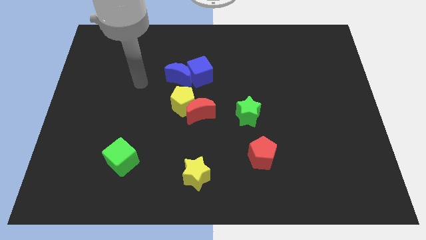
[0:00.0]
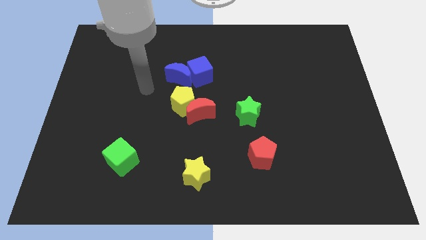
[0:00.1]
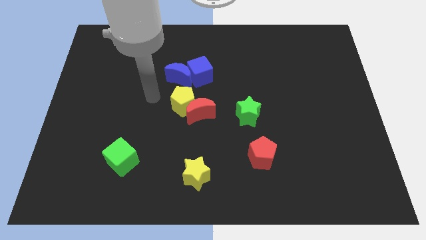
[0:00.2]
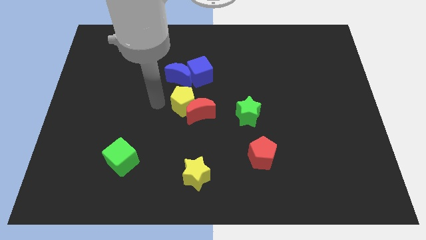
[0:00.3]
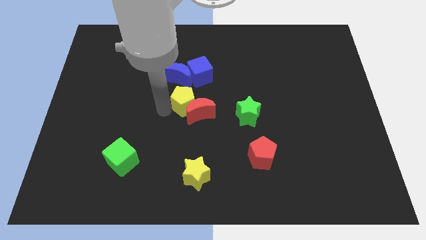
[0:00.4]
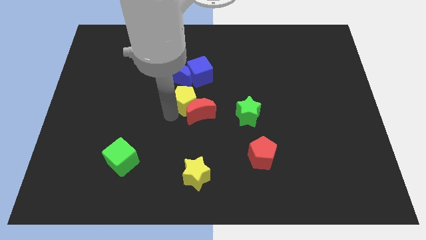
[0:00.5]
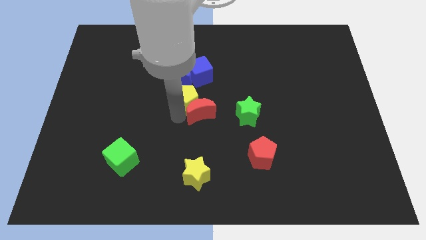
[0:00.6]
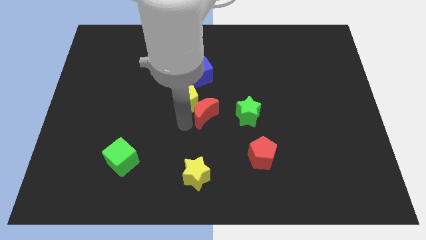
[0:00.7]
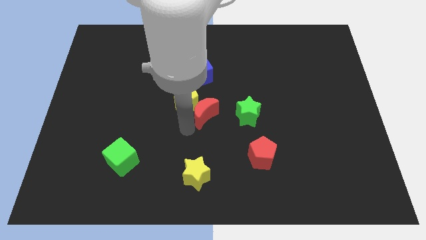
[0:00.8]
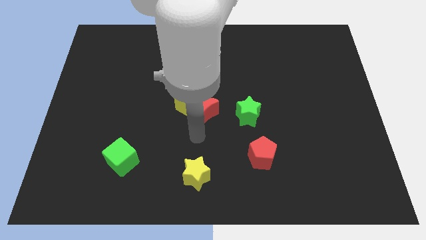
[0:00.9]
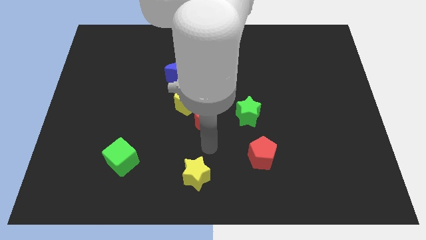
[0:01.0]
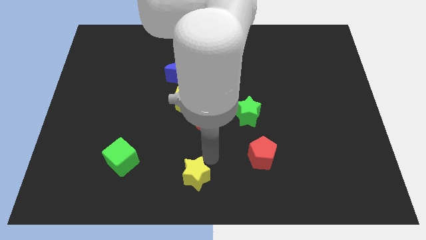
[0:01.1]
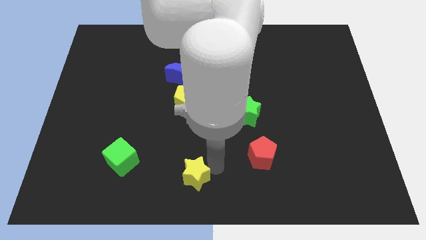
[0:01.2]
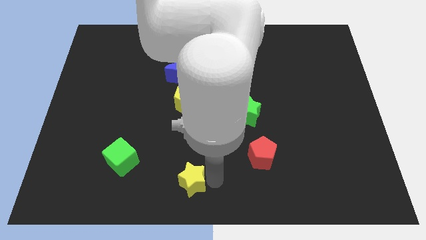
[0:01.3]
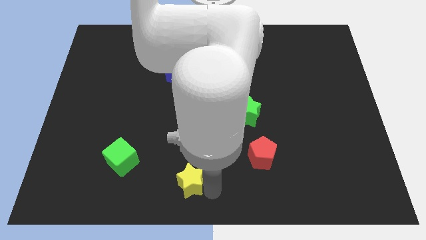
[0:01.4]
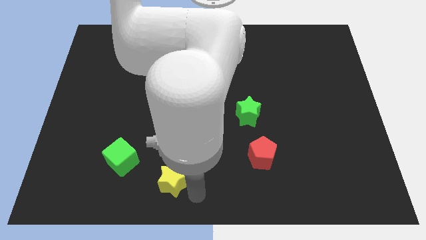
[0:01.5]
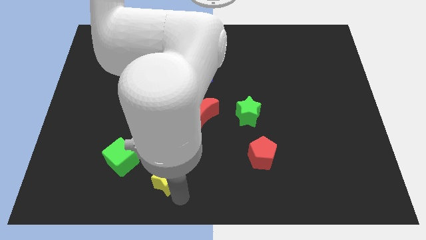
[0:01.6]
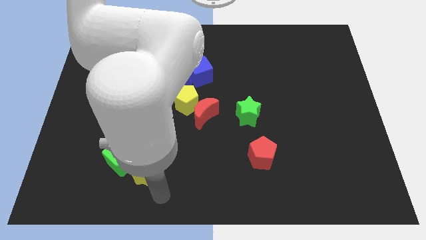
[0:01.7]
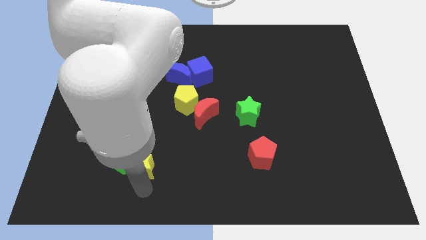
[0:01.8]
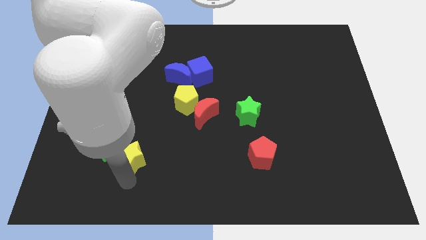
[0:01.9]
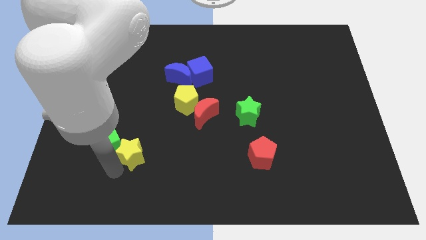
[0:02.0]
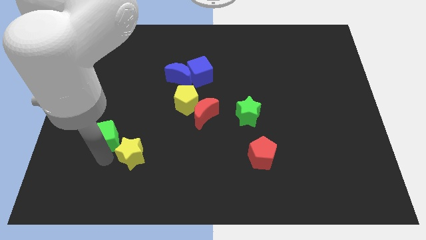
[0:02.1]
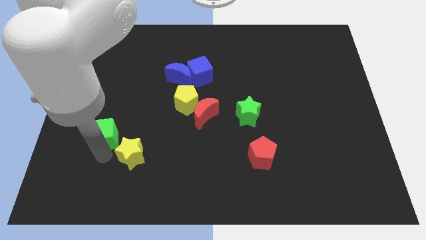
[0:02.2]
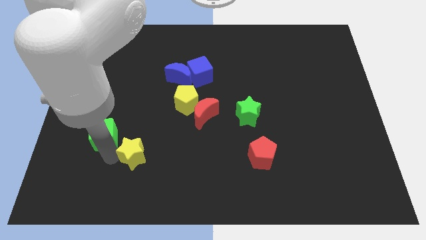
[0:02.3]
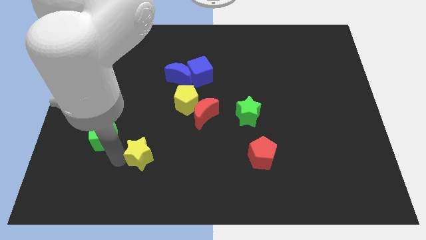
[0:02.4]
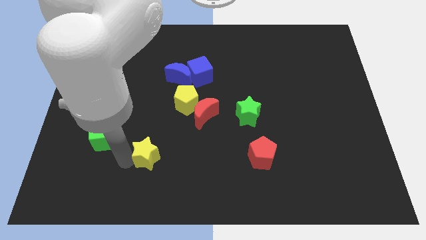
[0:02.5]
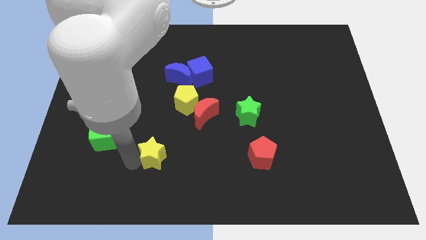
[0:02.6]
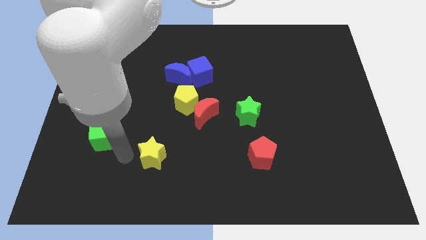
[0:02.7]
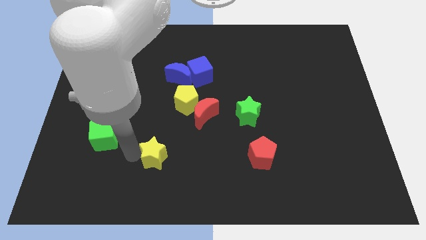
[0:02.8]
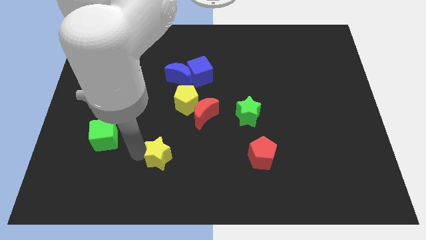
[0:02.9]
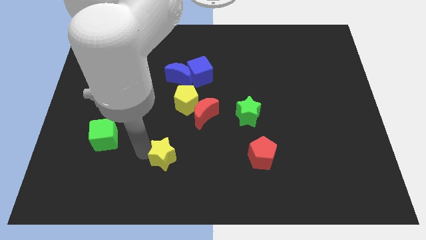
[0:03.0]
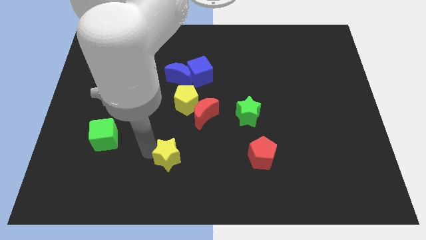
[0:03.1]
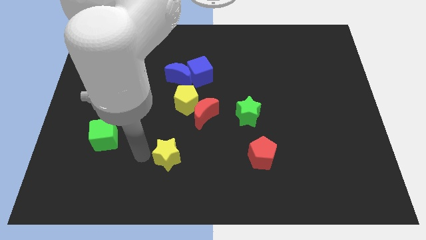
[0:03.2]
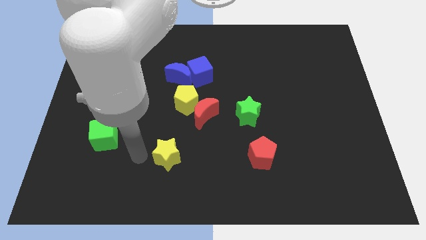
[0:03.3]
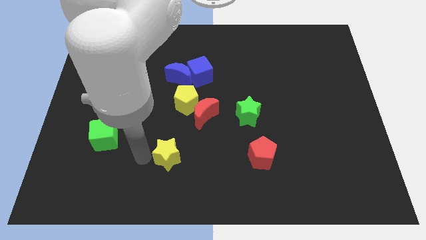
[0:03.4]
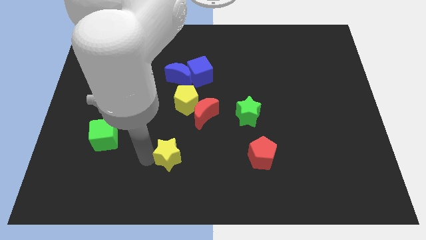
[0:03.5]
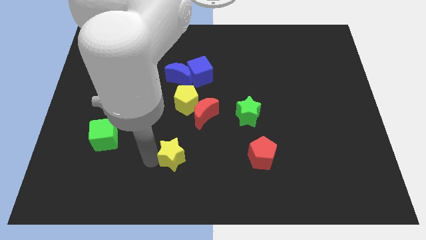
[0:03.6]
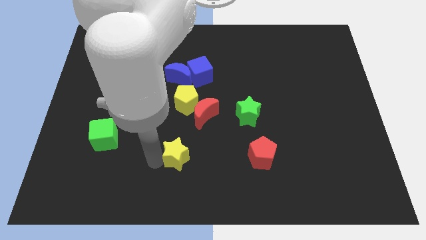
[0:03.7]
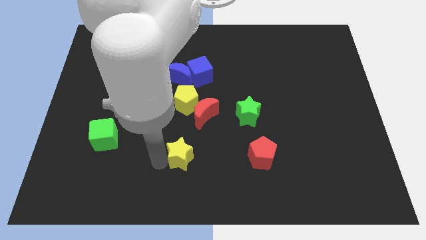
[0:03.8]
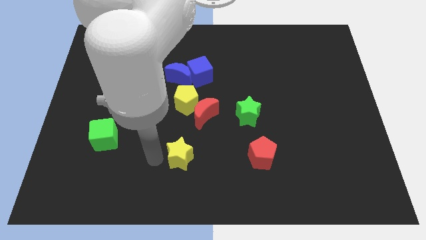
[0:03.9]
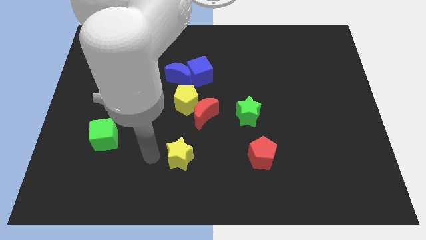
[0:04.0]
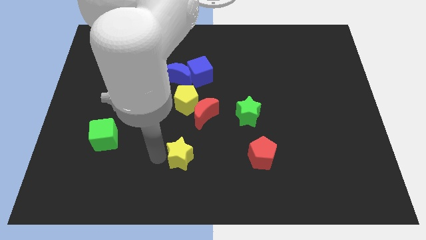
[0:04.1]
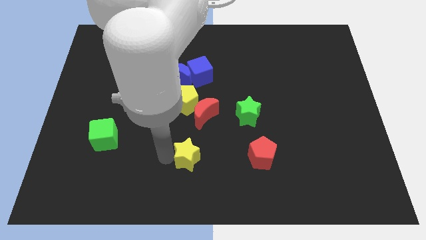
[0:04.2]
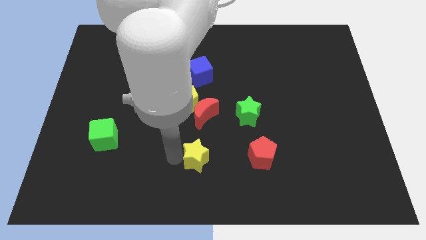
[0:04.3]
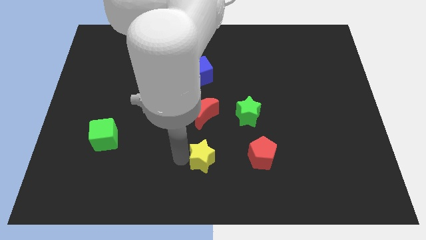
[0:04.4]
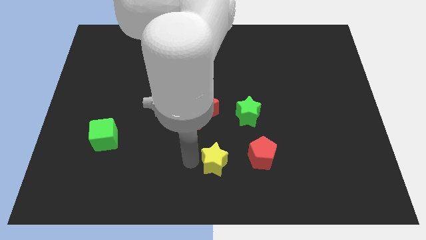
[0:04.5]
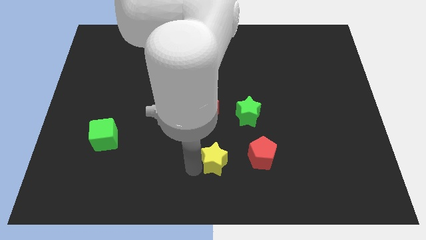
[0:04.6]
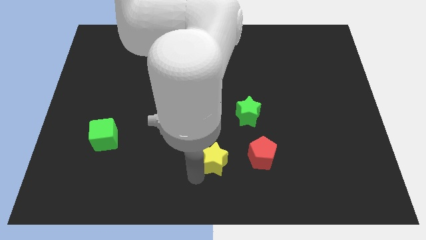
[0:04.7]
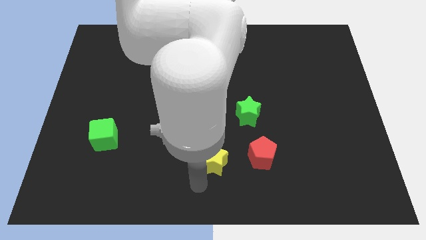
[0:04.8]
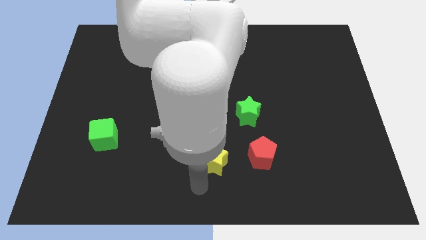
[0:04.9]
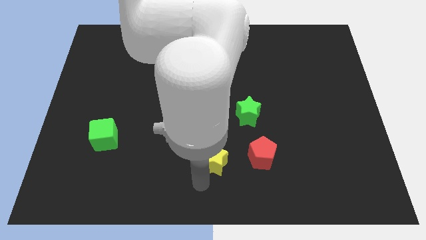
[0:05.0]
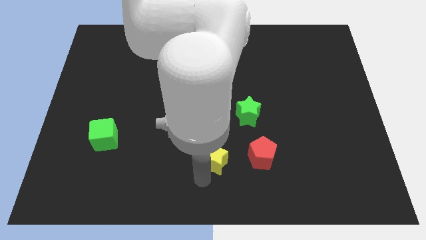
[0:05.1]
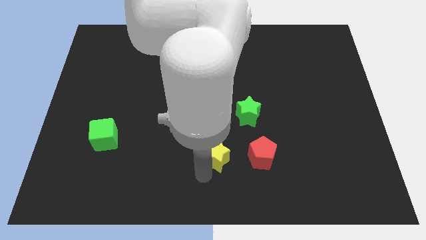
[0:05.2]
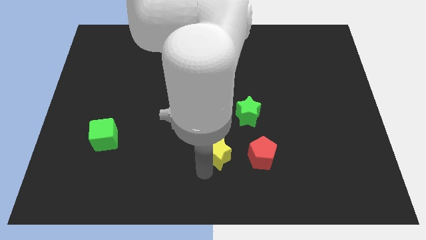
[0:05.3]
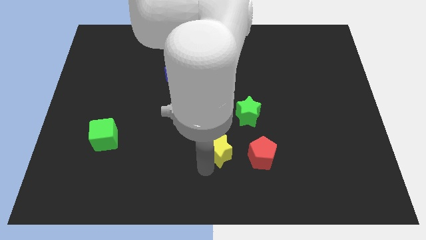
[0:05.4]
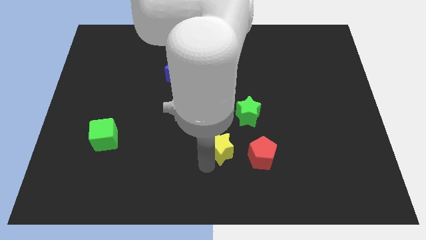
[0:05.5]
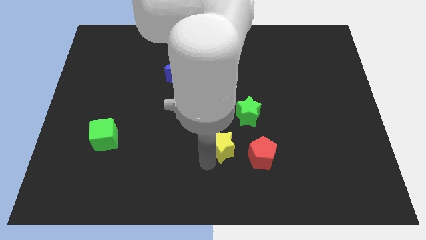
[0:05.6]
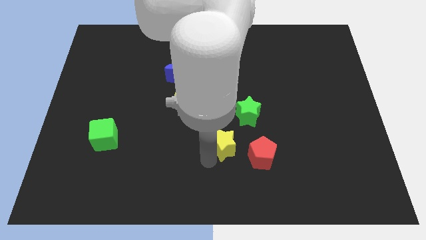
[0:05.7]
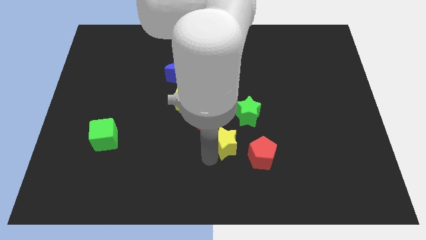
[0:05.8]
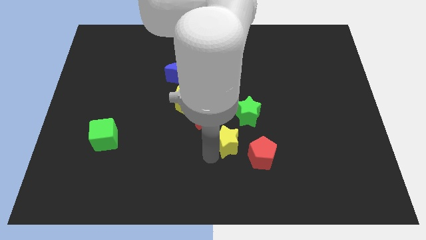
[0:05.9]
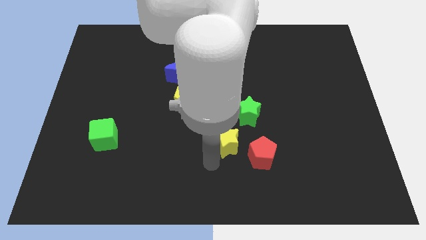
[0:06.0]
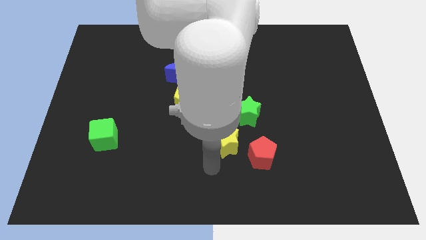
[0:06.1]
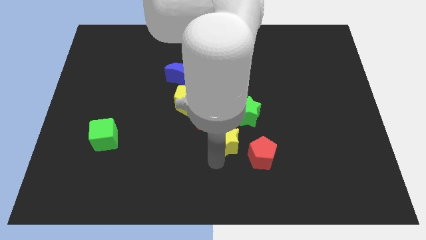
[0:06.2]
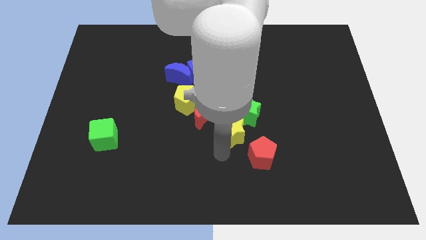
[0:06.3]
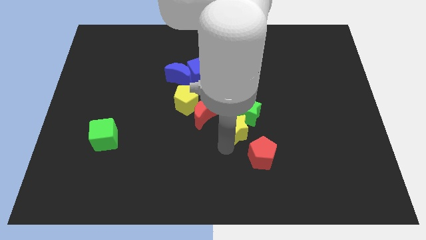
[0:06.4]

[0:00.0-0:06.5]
push the yellow star close to the green star

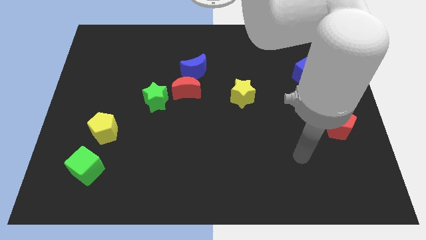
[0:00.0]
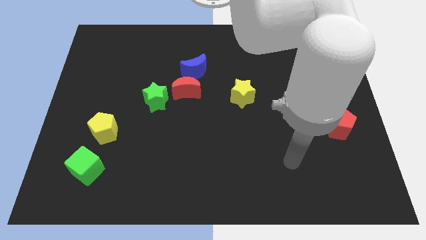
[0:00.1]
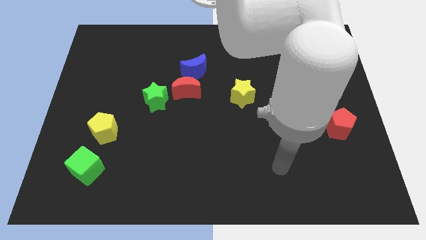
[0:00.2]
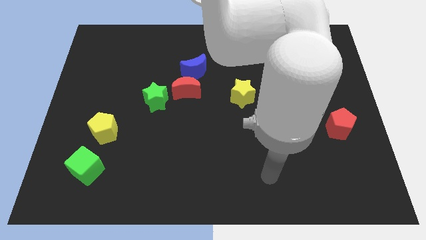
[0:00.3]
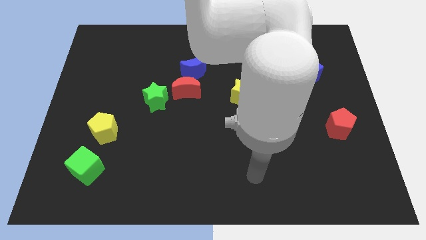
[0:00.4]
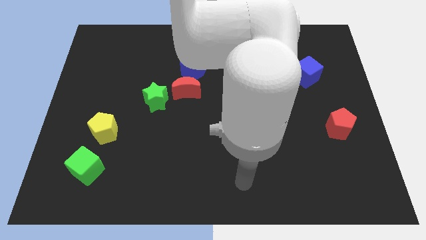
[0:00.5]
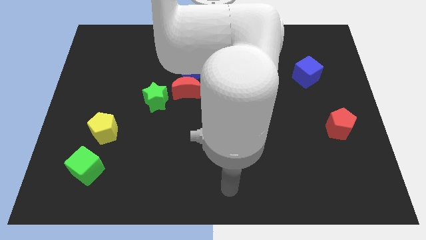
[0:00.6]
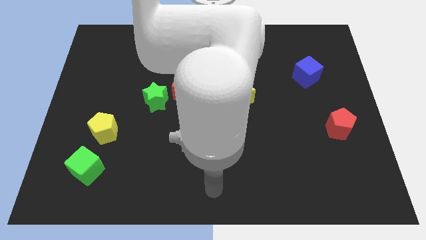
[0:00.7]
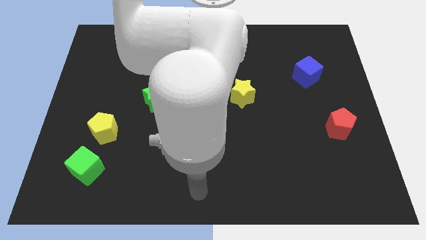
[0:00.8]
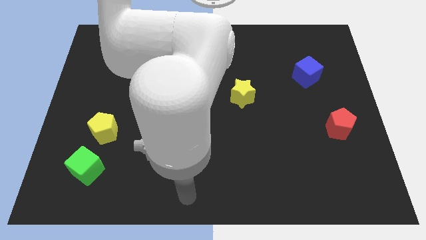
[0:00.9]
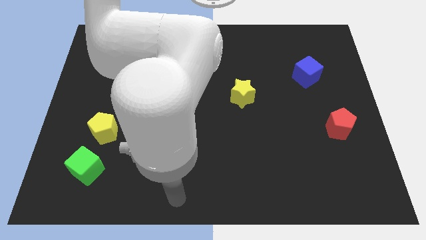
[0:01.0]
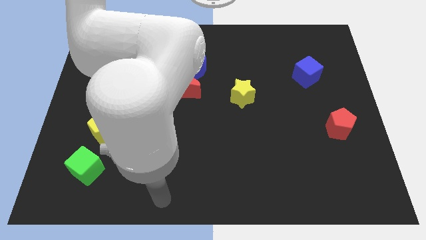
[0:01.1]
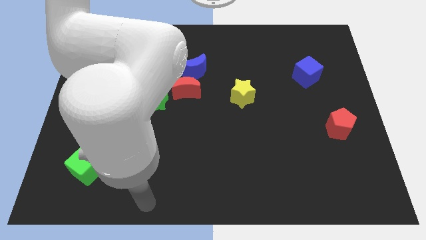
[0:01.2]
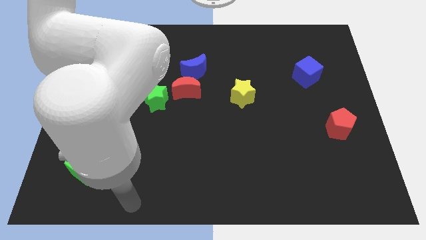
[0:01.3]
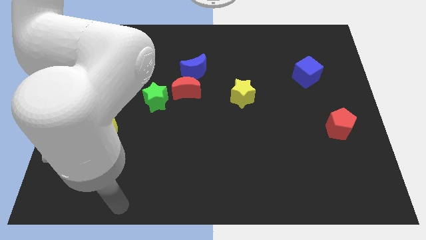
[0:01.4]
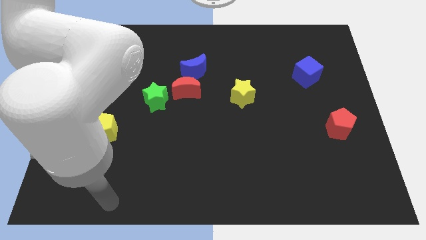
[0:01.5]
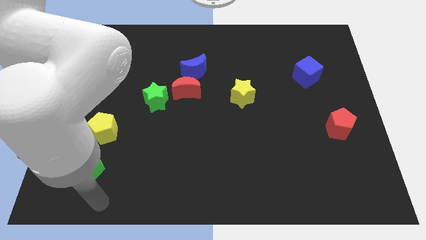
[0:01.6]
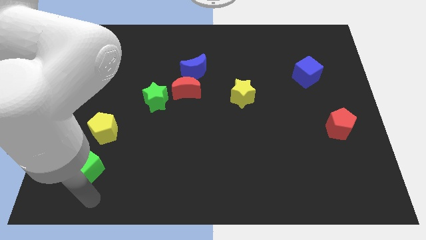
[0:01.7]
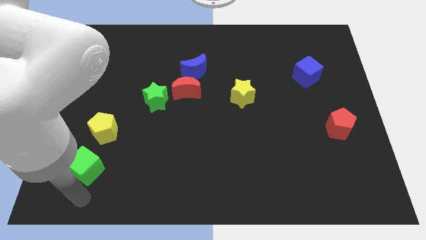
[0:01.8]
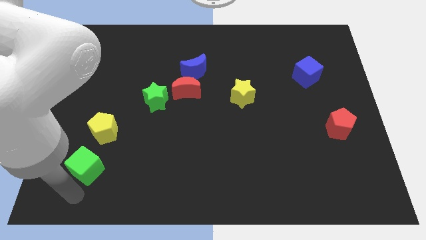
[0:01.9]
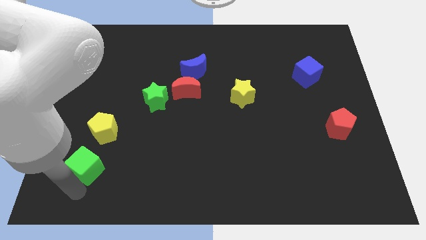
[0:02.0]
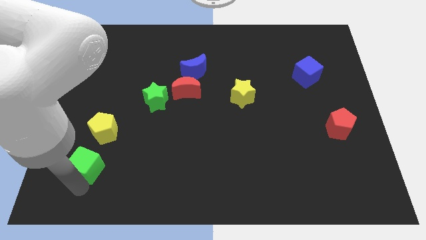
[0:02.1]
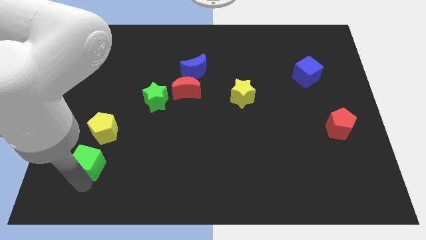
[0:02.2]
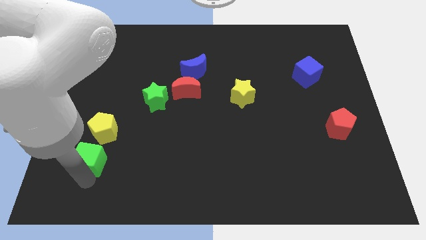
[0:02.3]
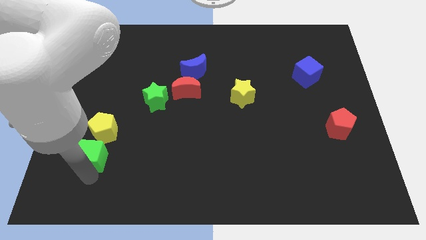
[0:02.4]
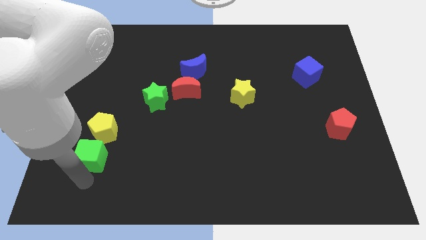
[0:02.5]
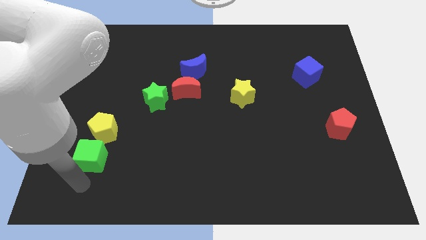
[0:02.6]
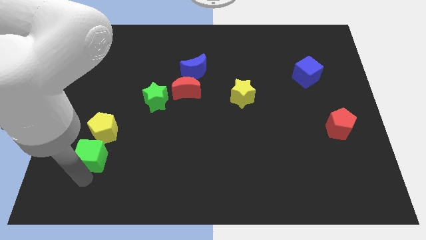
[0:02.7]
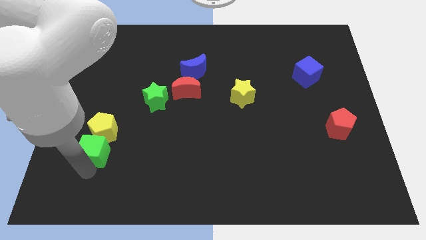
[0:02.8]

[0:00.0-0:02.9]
push the green cube to the yellow pentagon
